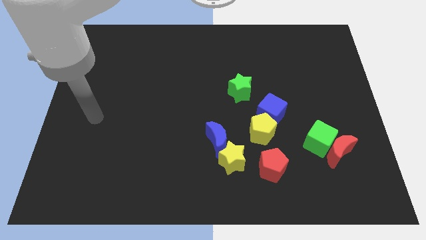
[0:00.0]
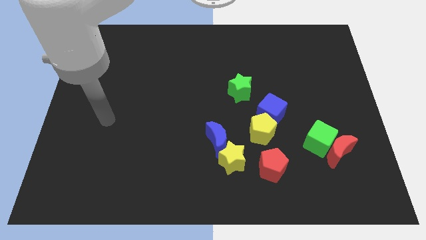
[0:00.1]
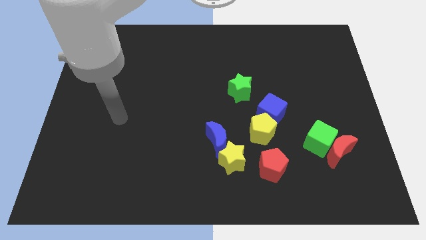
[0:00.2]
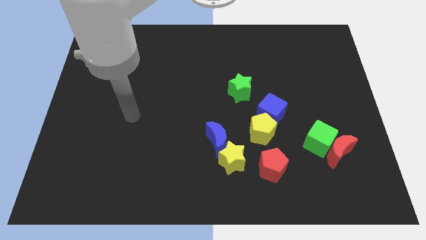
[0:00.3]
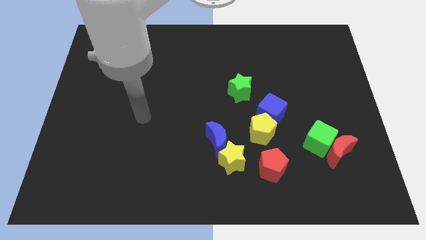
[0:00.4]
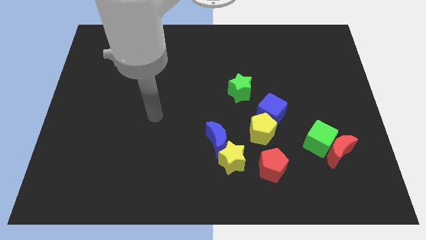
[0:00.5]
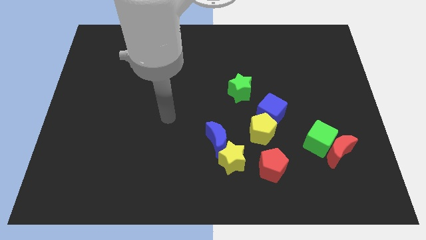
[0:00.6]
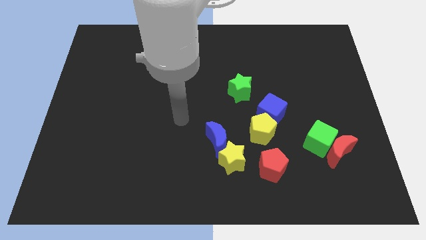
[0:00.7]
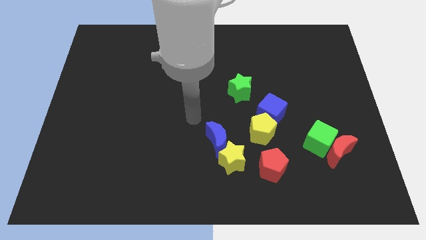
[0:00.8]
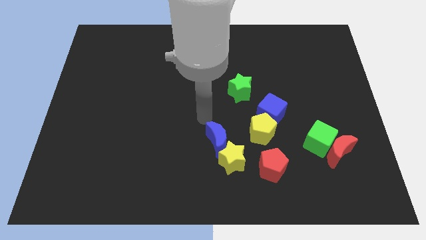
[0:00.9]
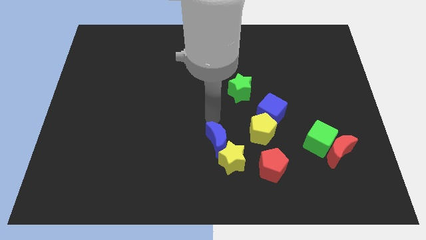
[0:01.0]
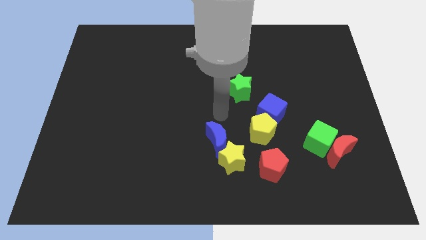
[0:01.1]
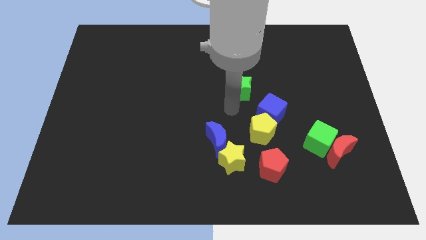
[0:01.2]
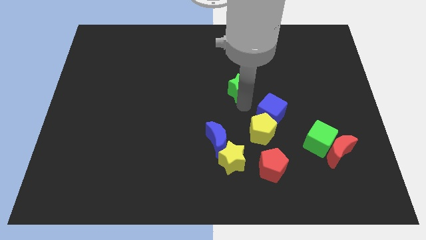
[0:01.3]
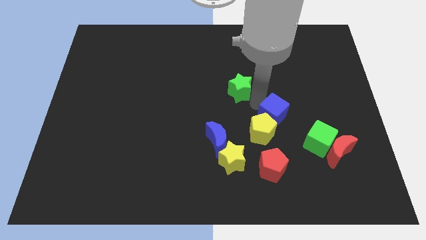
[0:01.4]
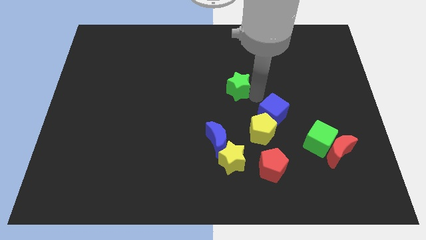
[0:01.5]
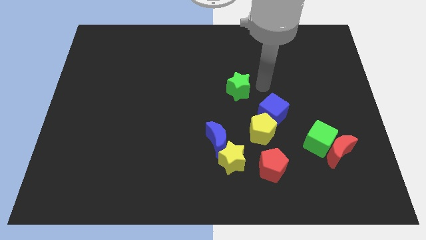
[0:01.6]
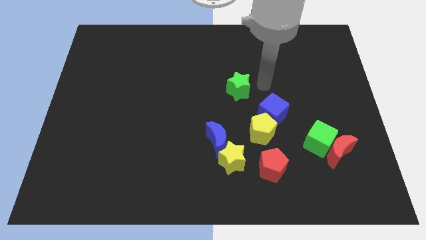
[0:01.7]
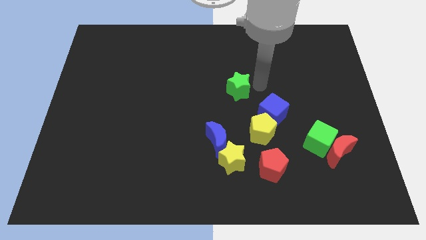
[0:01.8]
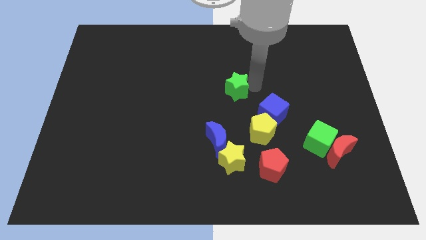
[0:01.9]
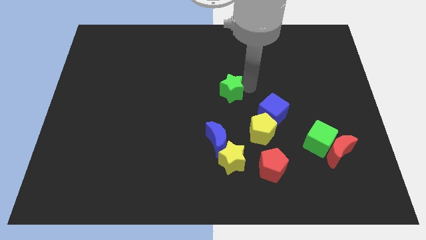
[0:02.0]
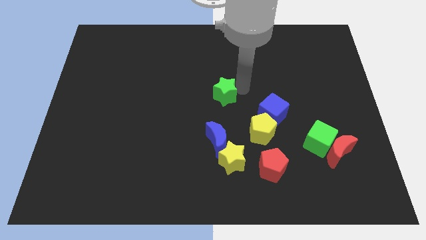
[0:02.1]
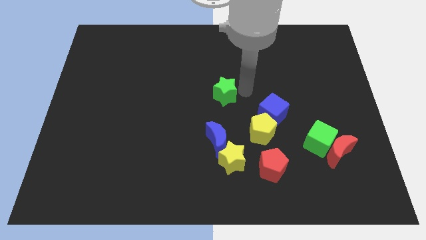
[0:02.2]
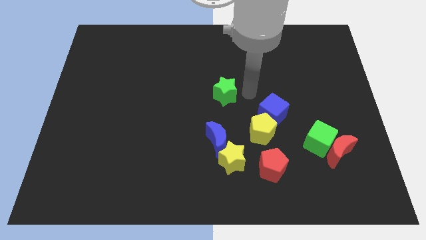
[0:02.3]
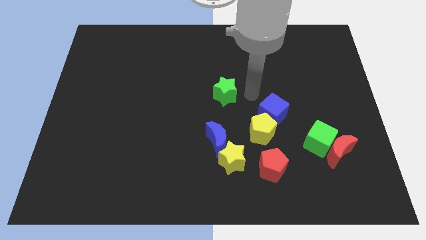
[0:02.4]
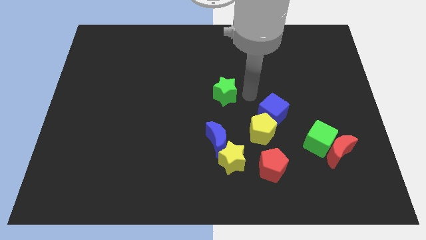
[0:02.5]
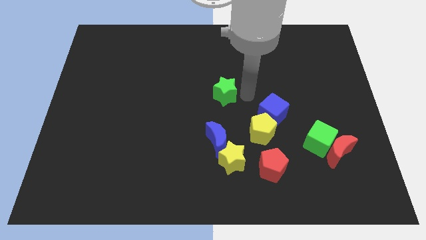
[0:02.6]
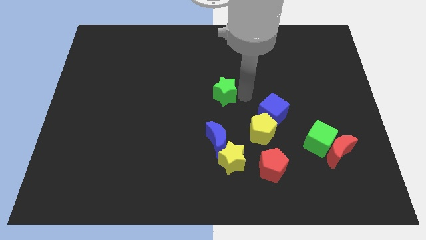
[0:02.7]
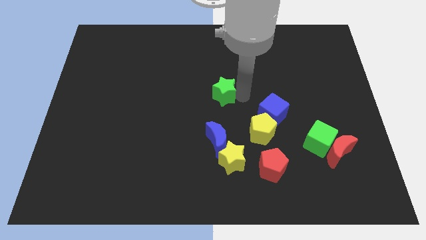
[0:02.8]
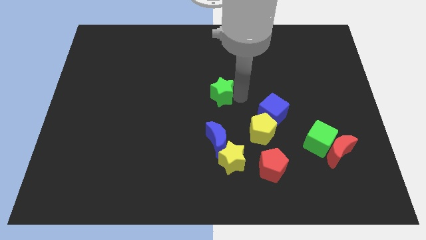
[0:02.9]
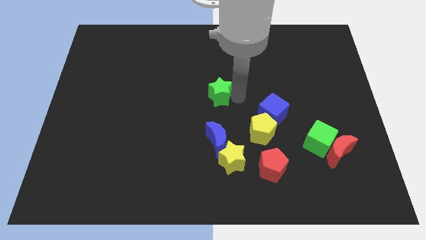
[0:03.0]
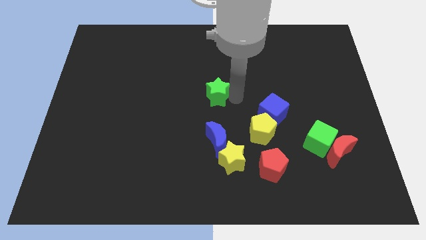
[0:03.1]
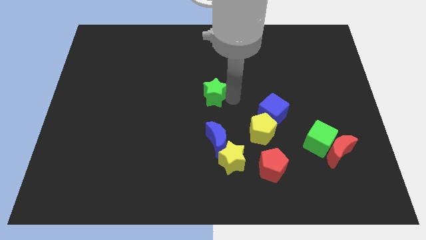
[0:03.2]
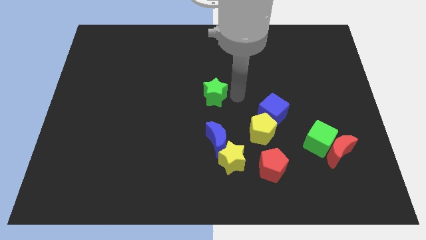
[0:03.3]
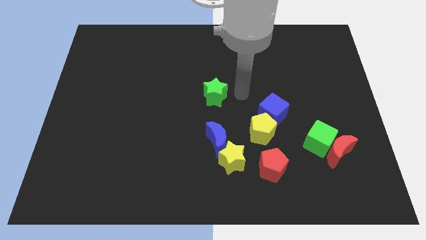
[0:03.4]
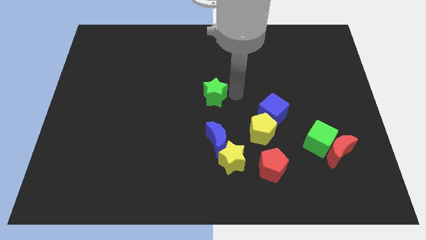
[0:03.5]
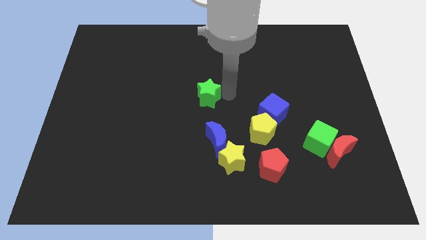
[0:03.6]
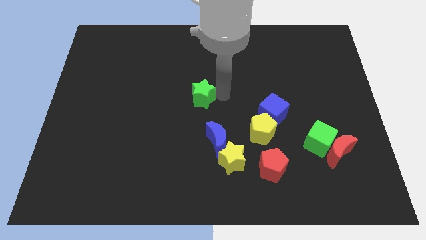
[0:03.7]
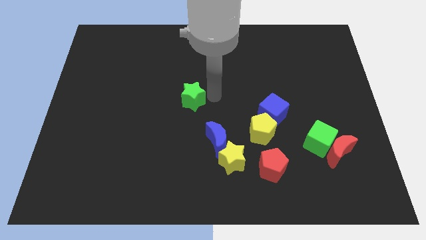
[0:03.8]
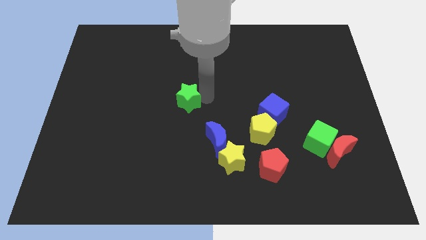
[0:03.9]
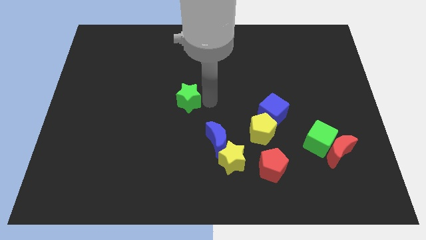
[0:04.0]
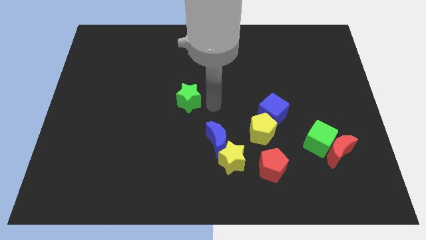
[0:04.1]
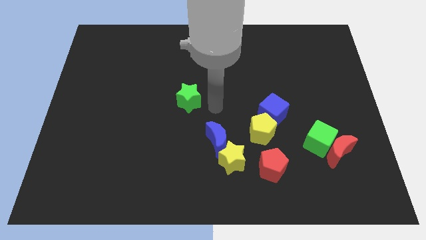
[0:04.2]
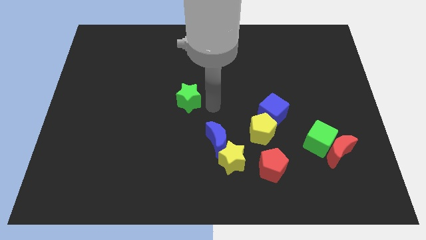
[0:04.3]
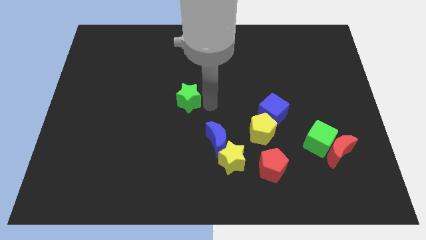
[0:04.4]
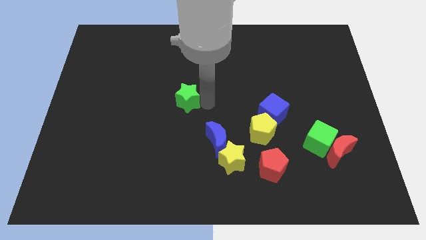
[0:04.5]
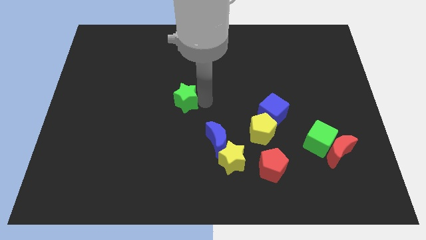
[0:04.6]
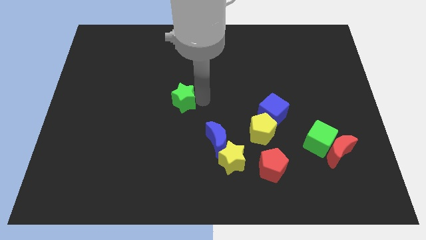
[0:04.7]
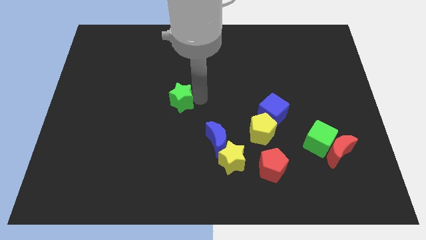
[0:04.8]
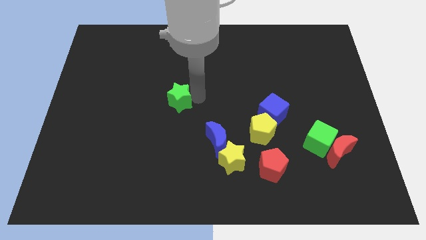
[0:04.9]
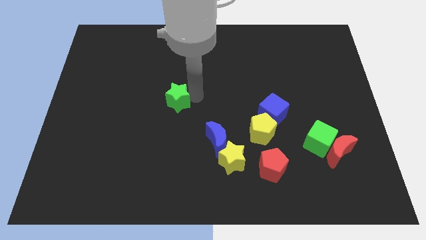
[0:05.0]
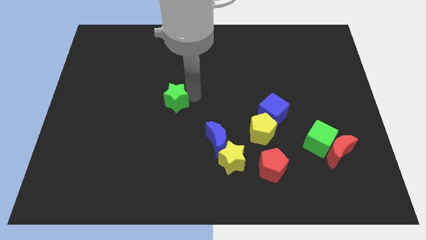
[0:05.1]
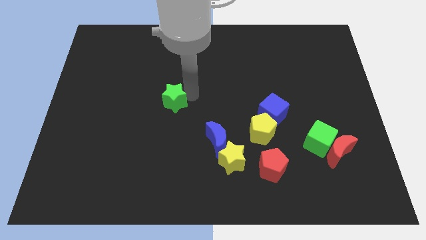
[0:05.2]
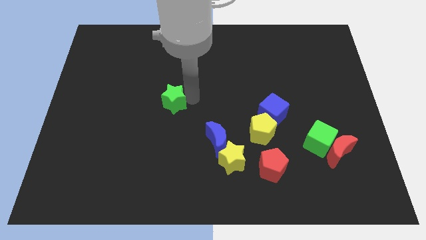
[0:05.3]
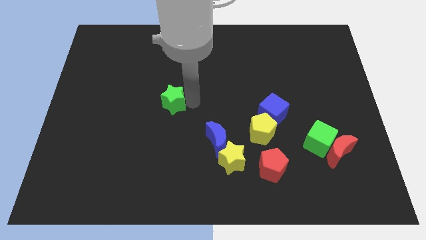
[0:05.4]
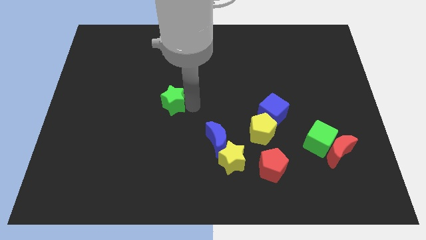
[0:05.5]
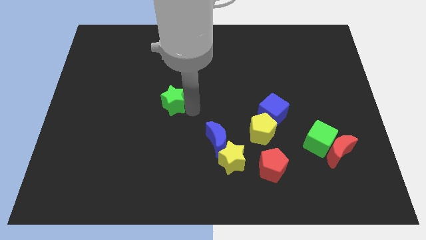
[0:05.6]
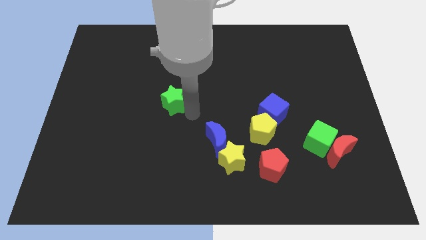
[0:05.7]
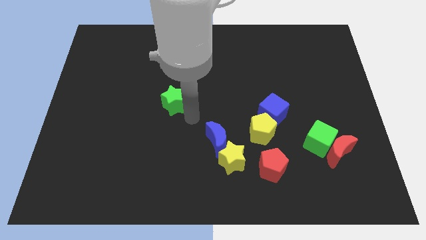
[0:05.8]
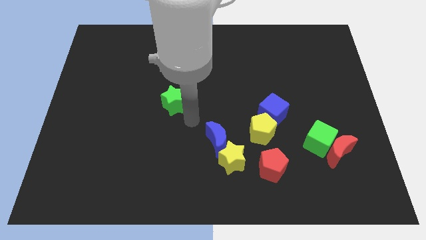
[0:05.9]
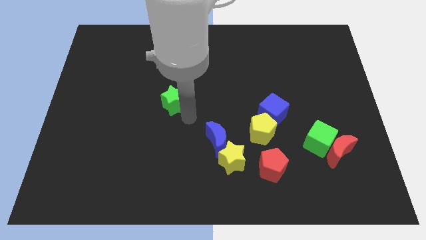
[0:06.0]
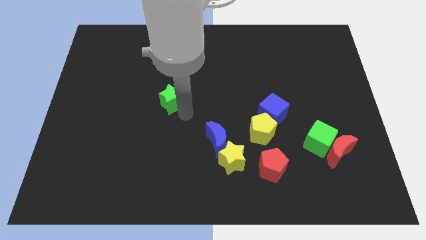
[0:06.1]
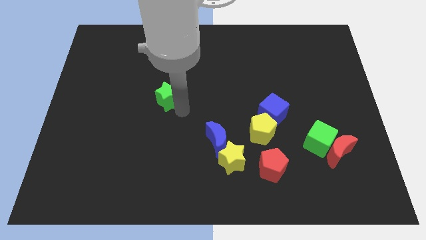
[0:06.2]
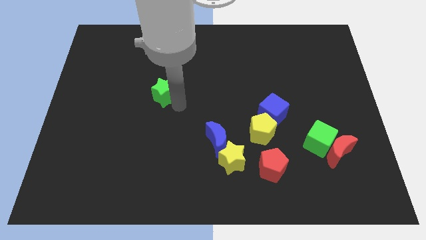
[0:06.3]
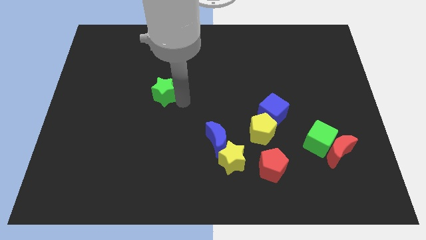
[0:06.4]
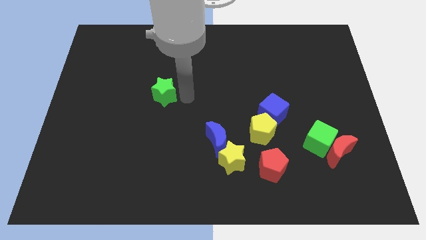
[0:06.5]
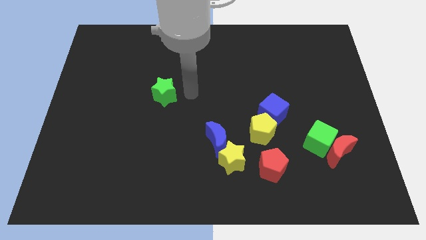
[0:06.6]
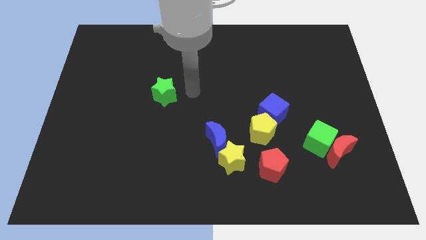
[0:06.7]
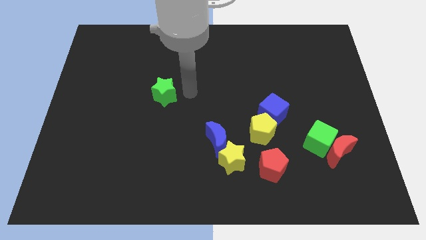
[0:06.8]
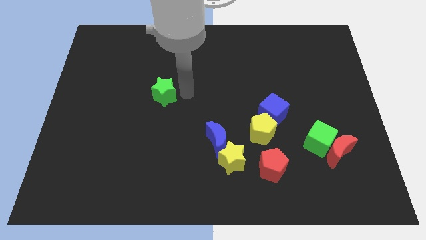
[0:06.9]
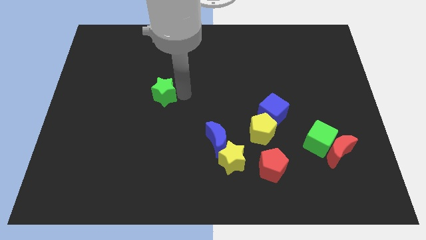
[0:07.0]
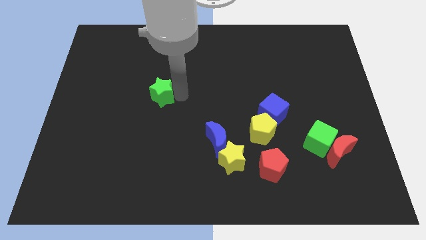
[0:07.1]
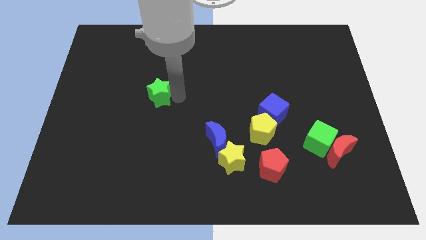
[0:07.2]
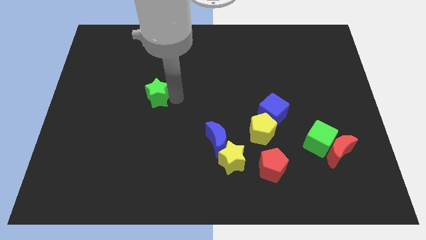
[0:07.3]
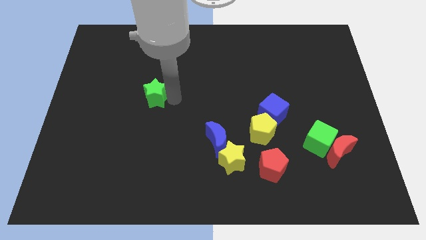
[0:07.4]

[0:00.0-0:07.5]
slide the green star to the left

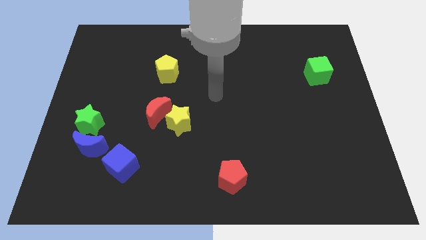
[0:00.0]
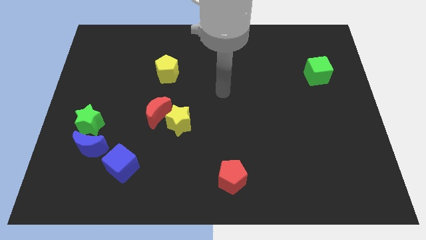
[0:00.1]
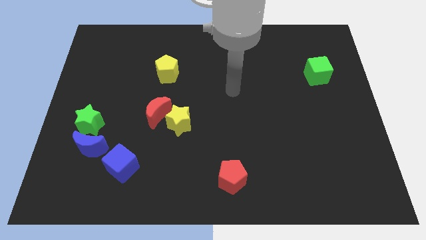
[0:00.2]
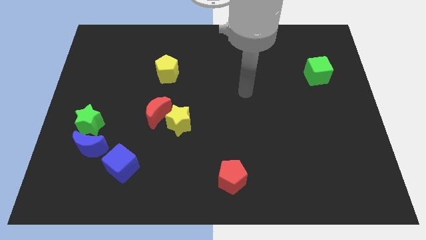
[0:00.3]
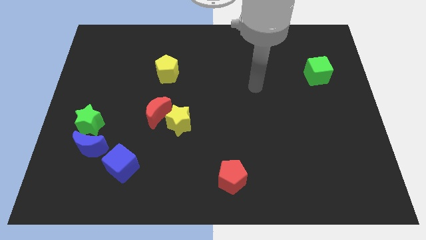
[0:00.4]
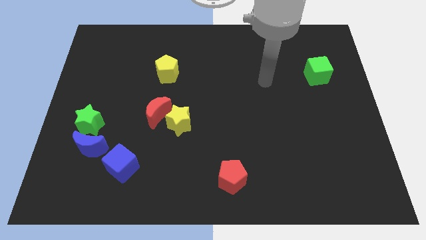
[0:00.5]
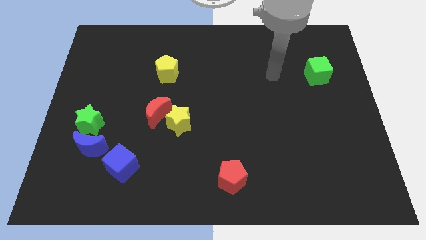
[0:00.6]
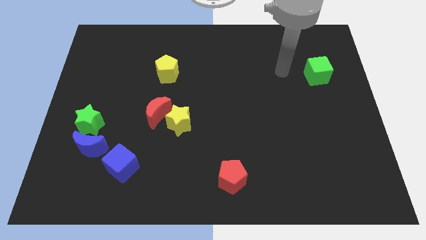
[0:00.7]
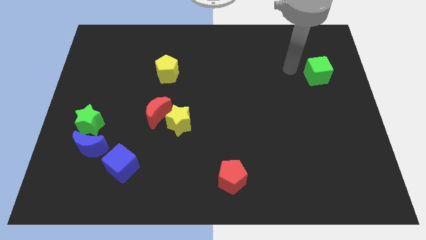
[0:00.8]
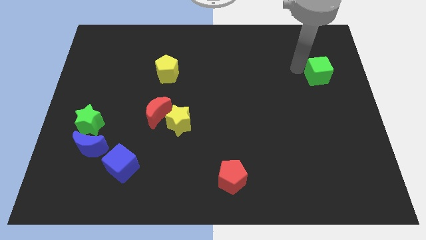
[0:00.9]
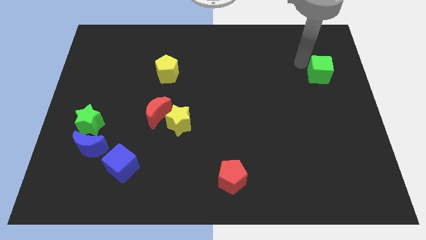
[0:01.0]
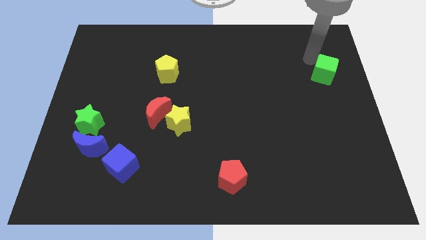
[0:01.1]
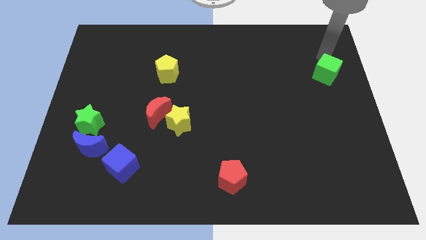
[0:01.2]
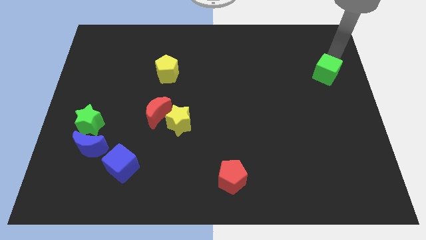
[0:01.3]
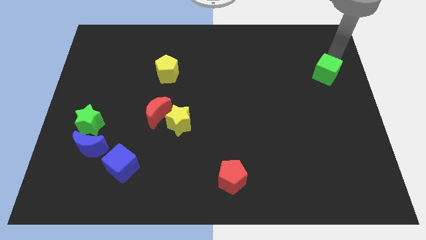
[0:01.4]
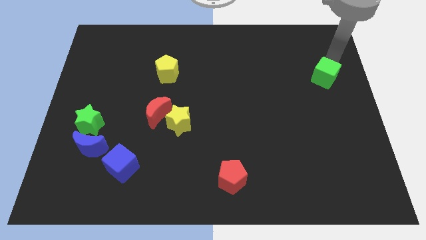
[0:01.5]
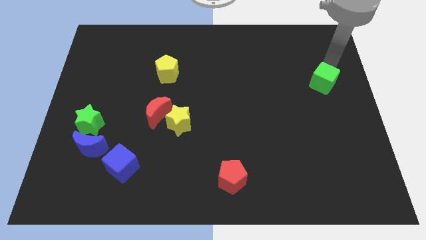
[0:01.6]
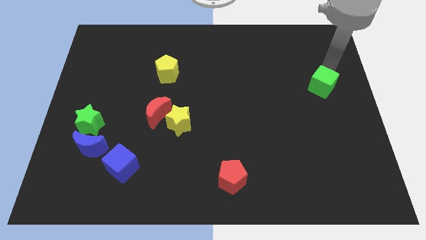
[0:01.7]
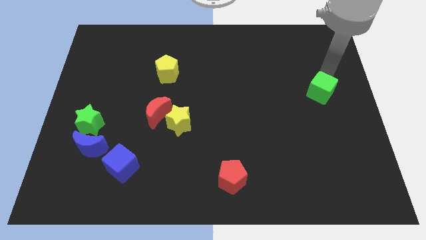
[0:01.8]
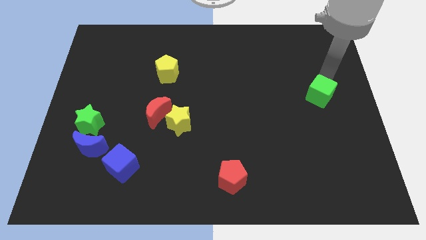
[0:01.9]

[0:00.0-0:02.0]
move the green cube a little bit down
